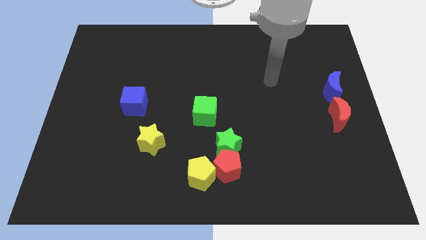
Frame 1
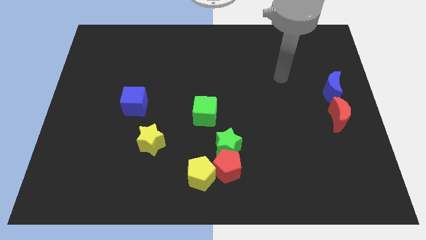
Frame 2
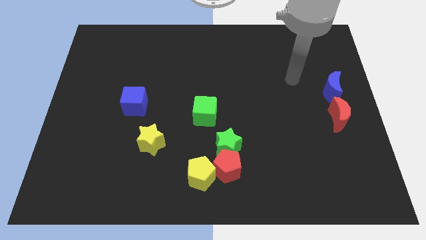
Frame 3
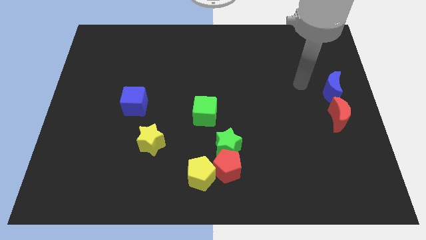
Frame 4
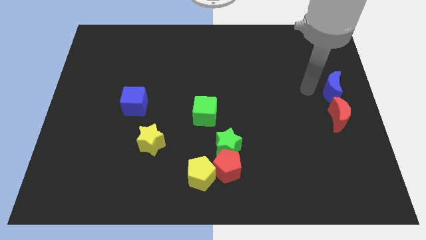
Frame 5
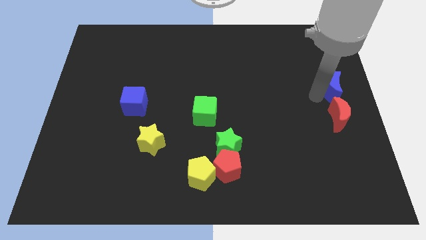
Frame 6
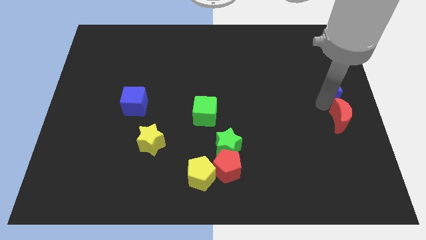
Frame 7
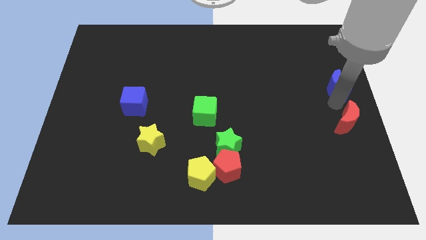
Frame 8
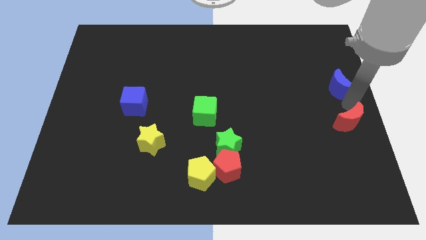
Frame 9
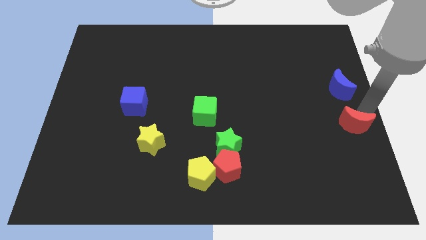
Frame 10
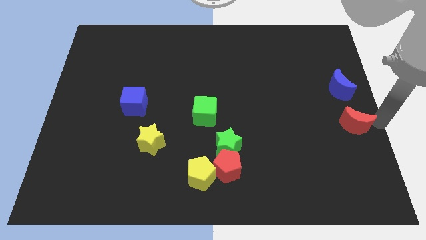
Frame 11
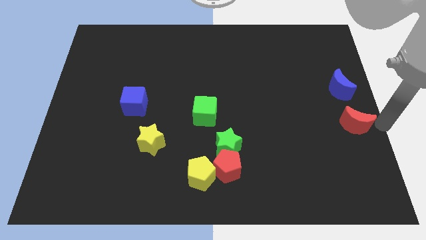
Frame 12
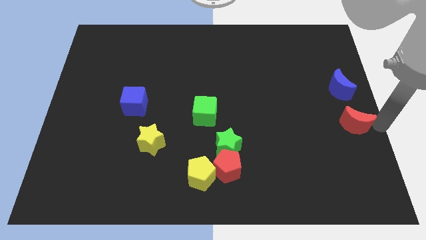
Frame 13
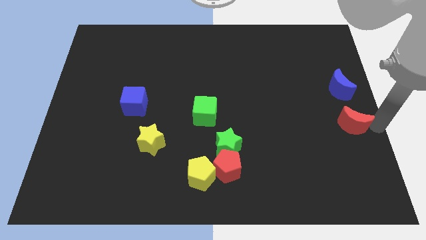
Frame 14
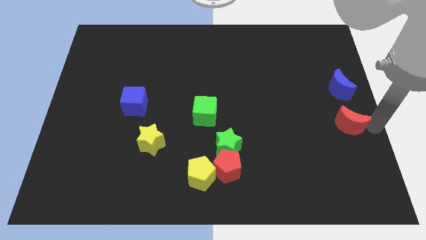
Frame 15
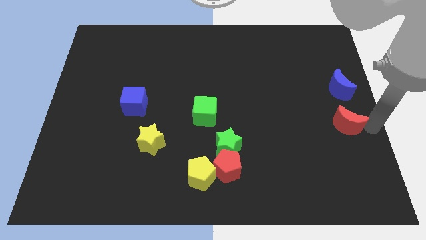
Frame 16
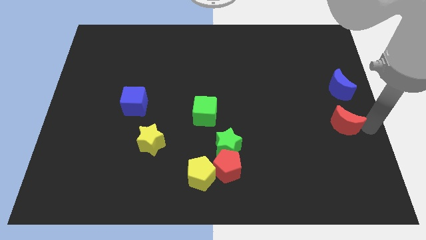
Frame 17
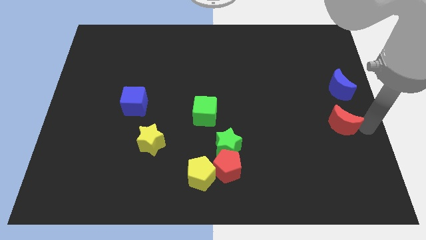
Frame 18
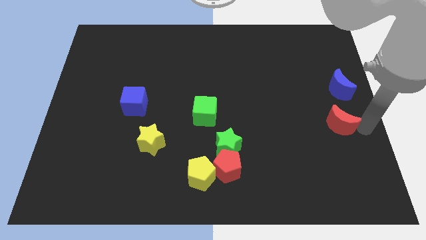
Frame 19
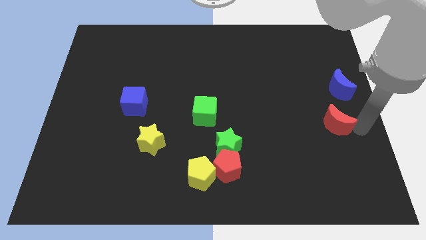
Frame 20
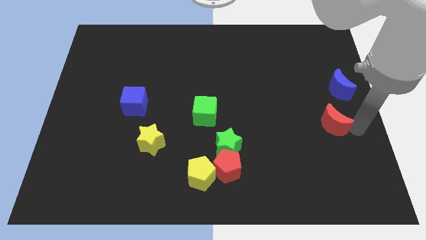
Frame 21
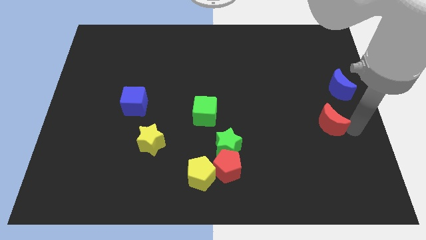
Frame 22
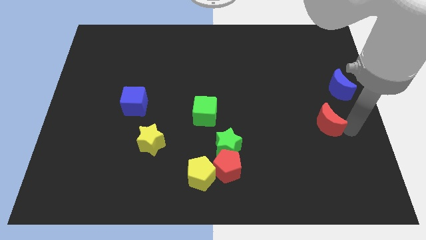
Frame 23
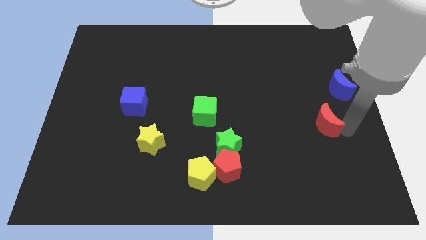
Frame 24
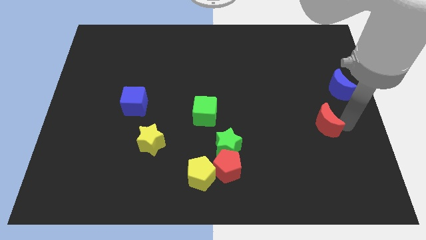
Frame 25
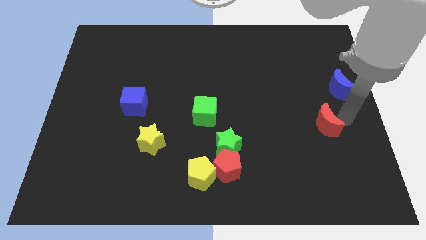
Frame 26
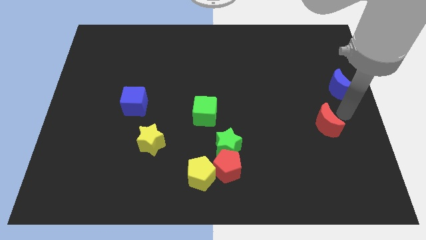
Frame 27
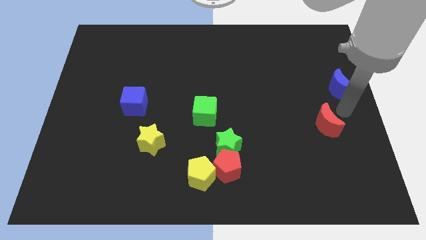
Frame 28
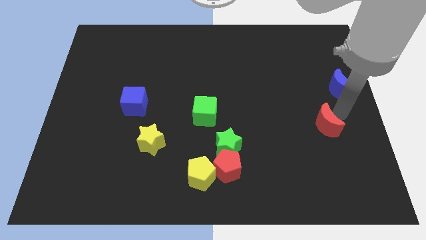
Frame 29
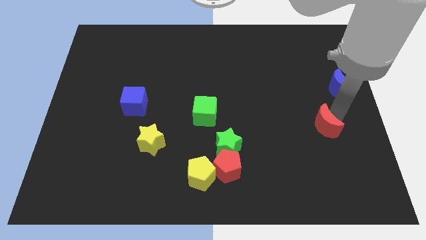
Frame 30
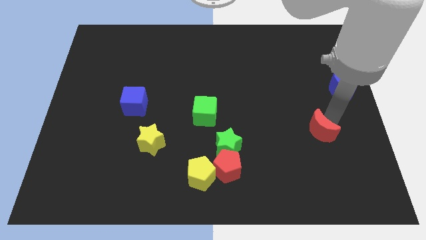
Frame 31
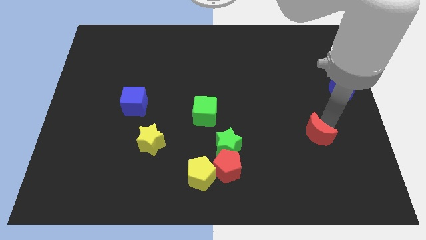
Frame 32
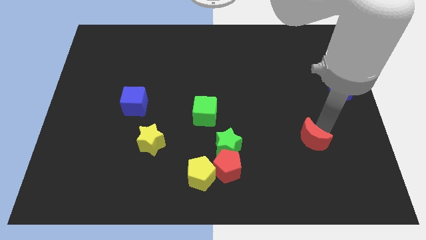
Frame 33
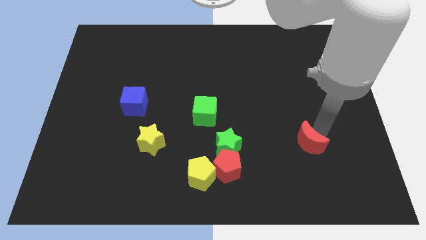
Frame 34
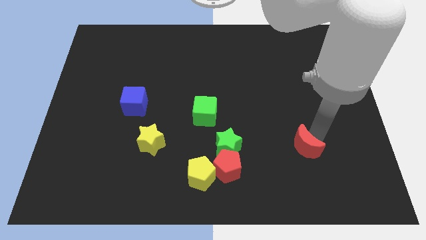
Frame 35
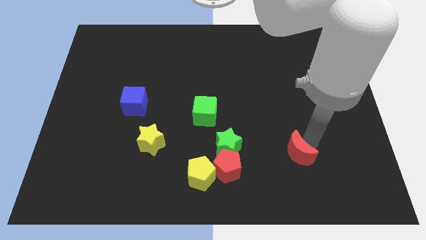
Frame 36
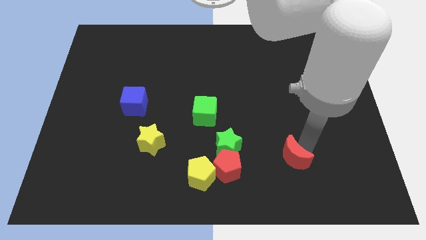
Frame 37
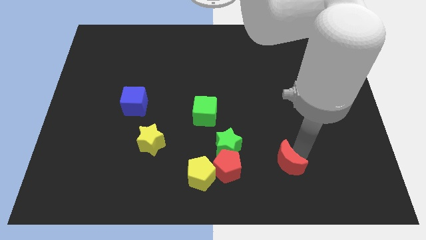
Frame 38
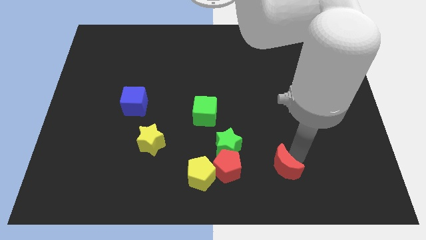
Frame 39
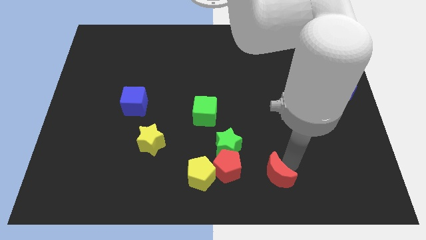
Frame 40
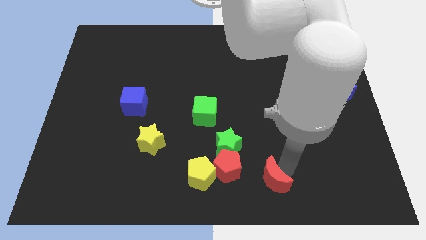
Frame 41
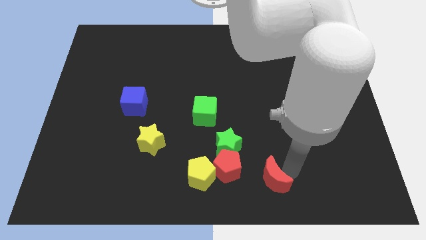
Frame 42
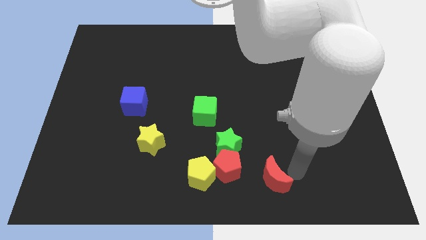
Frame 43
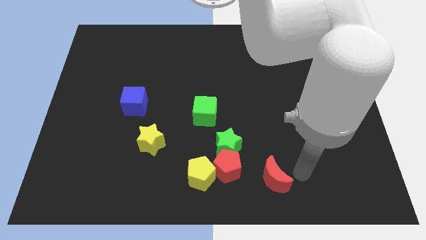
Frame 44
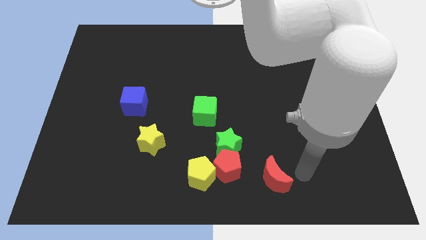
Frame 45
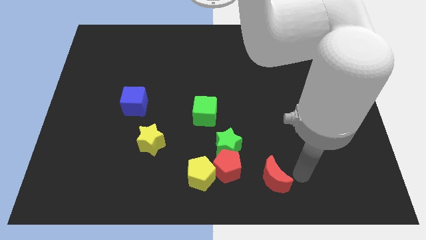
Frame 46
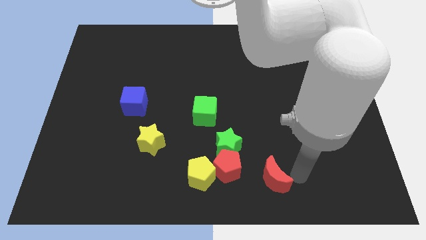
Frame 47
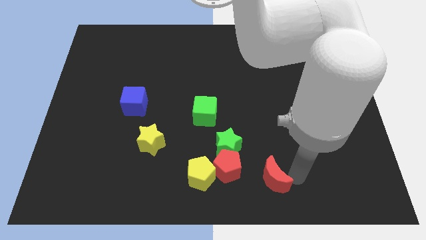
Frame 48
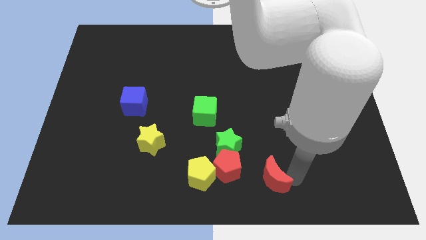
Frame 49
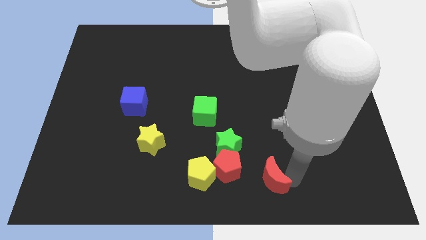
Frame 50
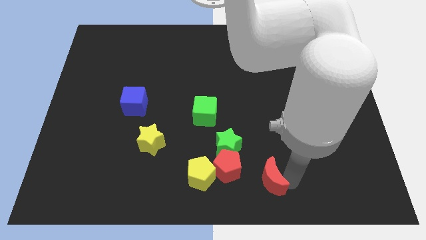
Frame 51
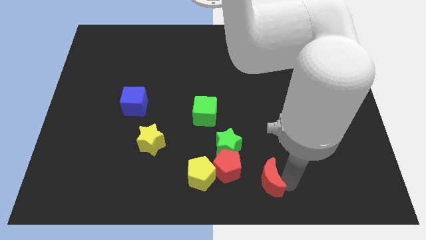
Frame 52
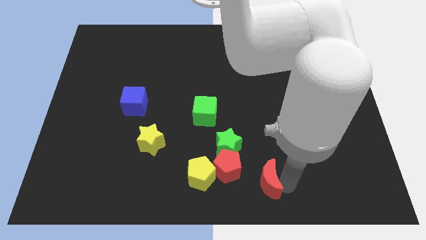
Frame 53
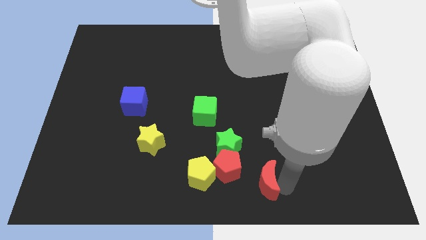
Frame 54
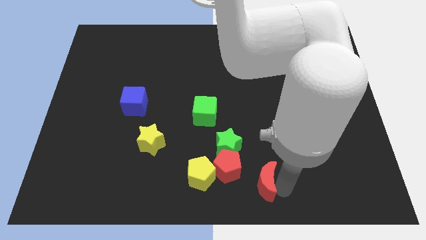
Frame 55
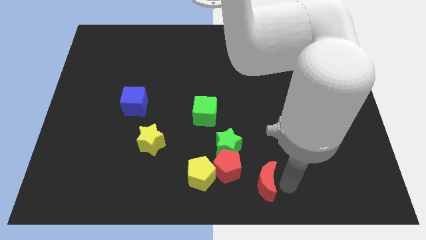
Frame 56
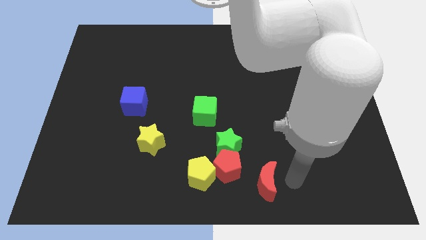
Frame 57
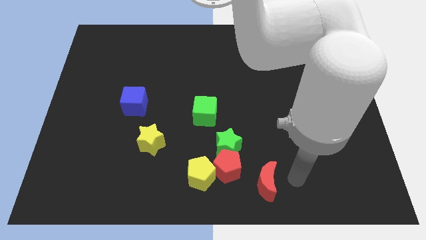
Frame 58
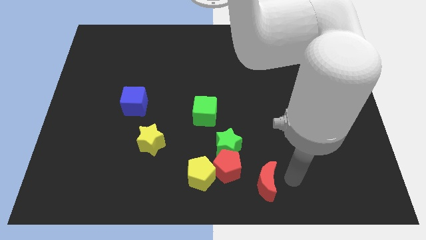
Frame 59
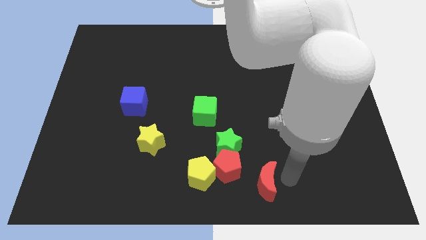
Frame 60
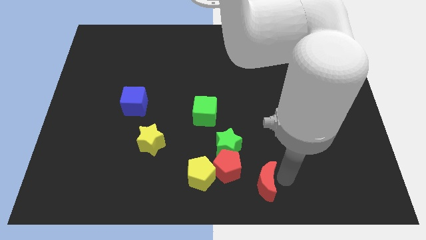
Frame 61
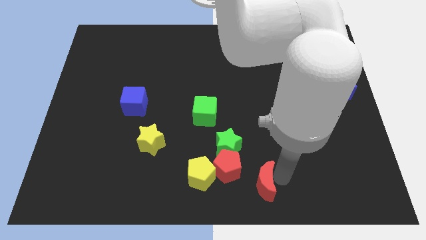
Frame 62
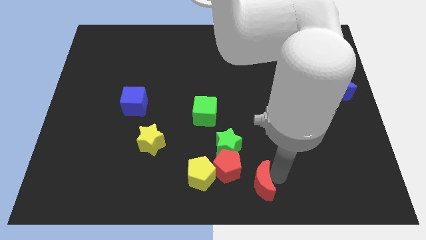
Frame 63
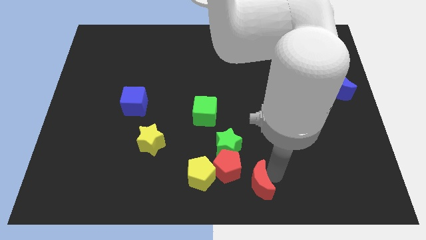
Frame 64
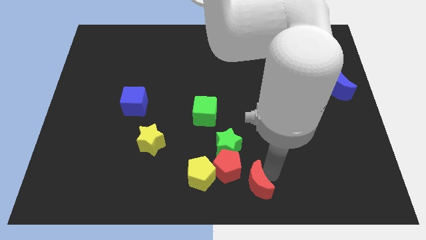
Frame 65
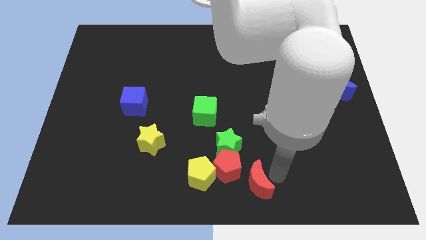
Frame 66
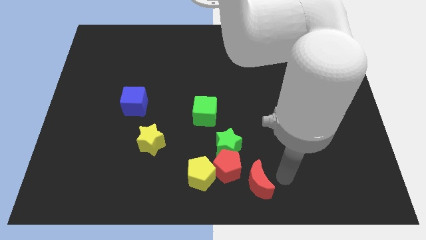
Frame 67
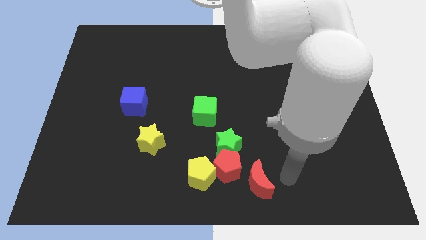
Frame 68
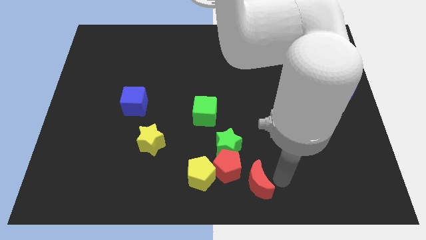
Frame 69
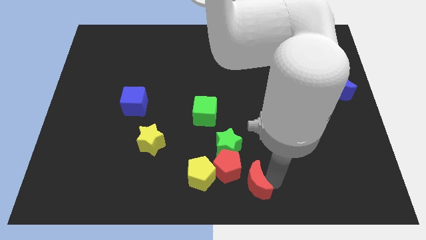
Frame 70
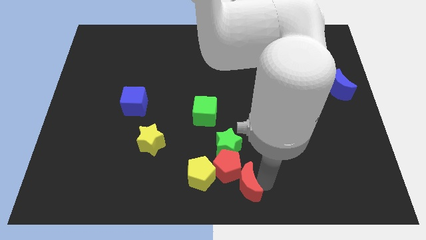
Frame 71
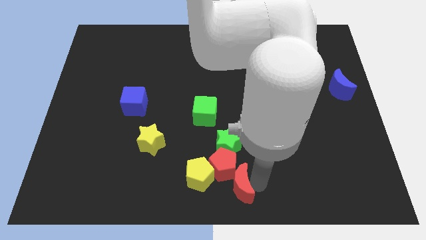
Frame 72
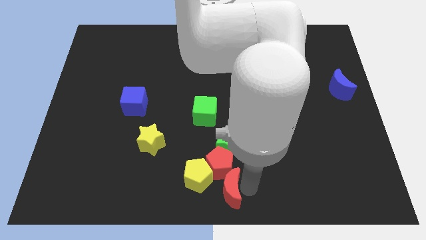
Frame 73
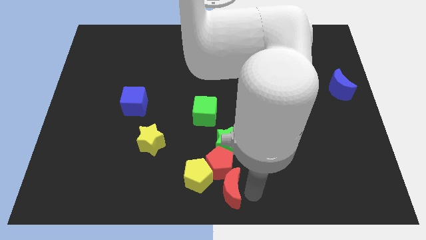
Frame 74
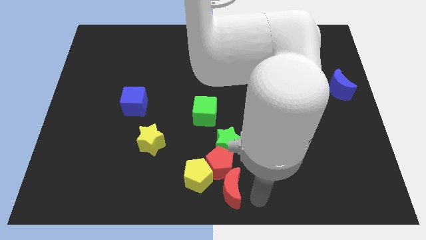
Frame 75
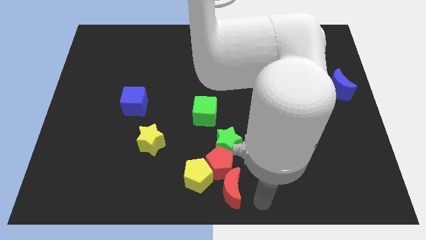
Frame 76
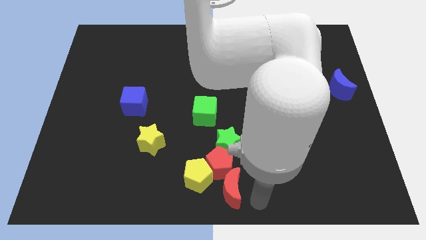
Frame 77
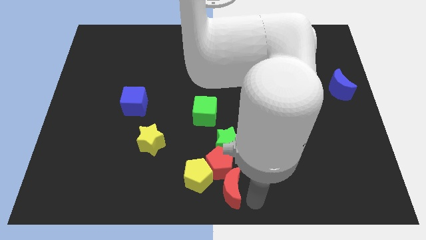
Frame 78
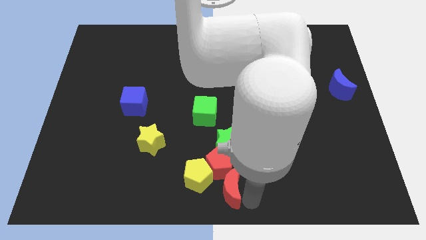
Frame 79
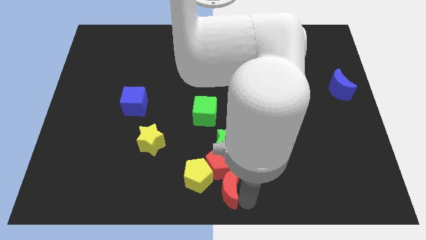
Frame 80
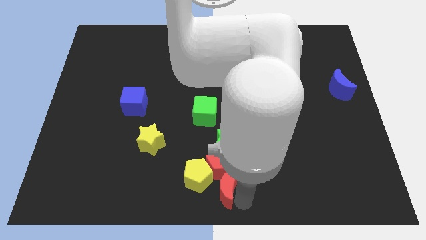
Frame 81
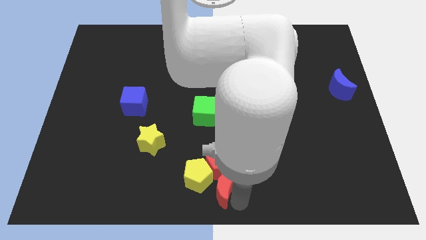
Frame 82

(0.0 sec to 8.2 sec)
put the red moon towards the yellow pentagon

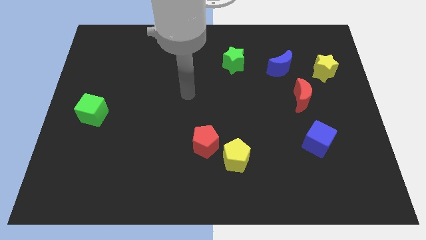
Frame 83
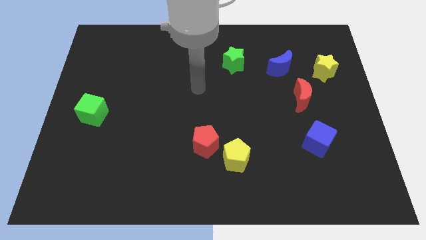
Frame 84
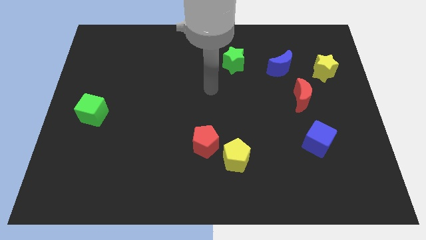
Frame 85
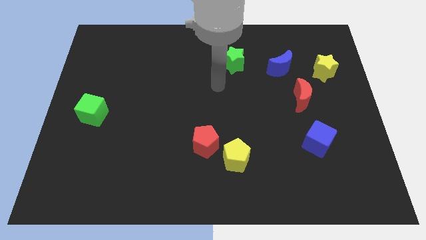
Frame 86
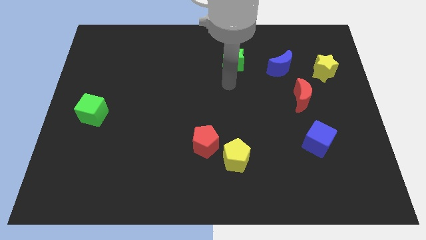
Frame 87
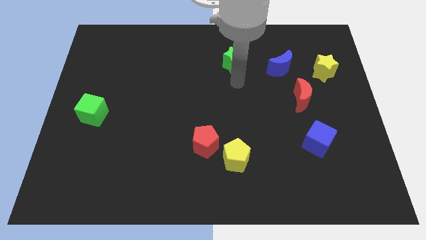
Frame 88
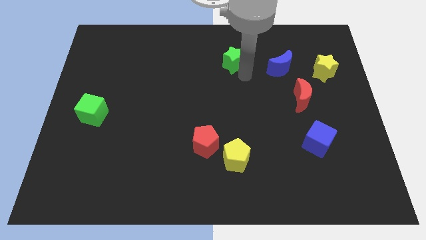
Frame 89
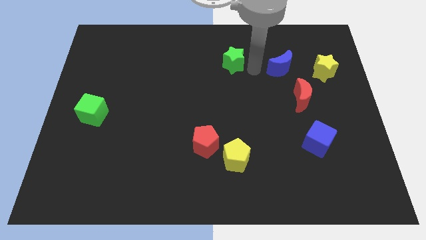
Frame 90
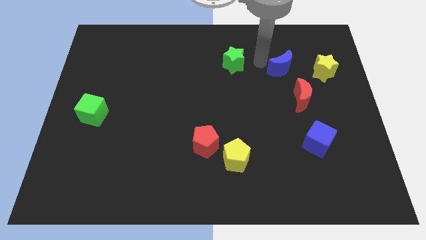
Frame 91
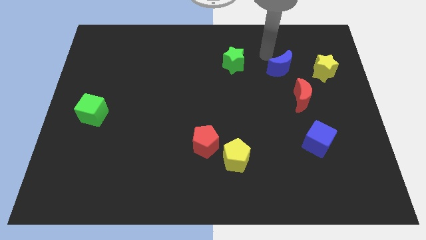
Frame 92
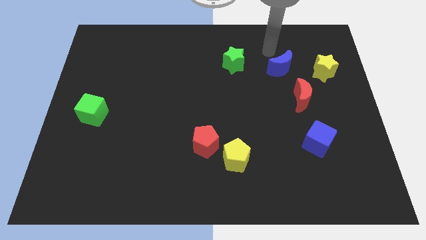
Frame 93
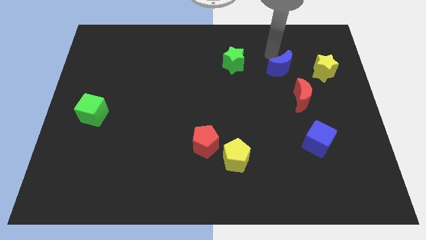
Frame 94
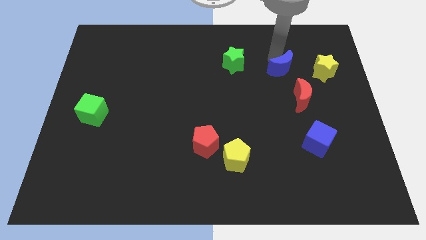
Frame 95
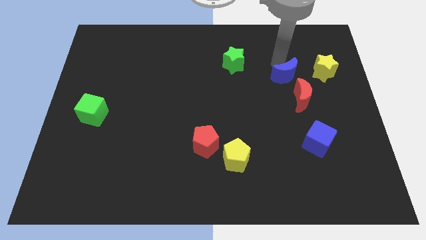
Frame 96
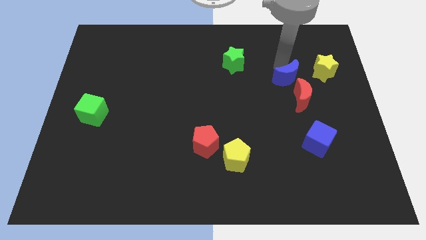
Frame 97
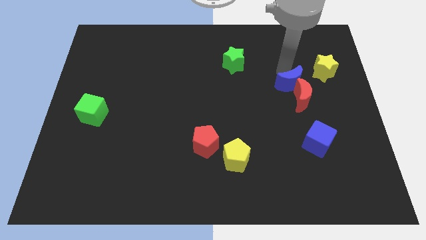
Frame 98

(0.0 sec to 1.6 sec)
move the blue moon next to the red moon
